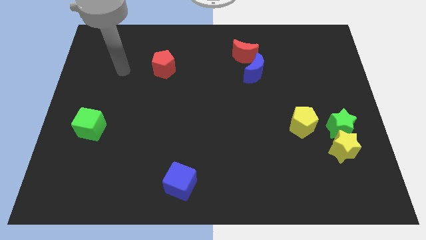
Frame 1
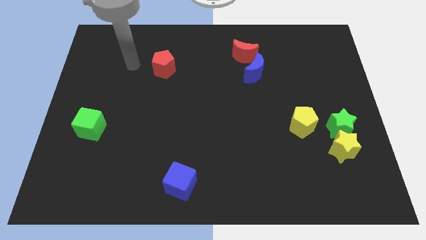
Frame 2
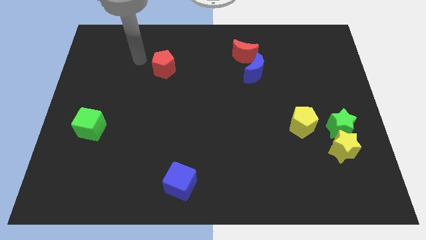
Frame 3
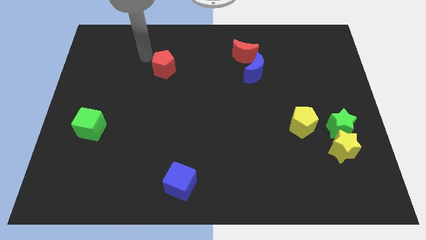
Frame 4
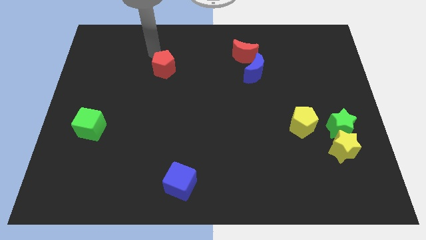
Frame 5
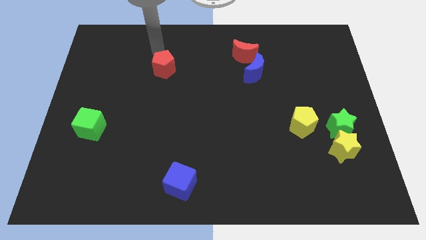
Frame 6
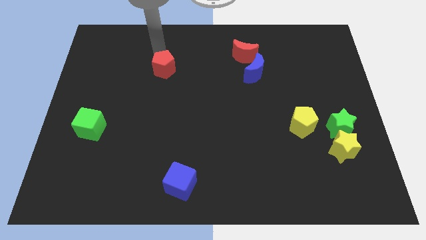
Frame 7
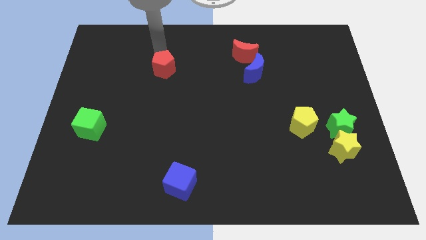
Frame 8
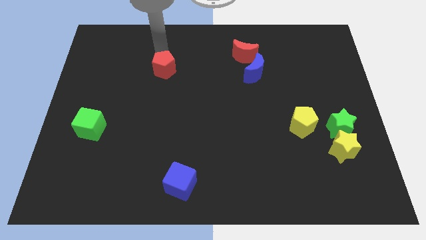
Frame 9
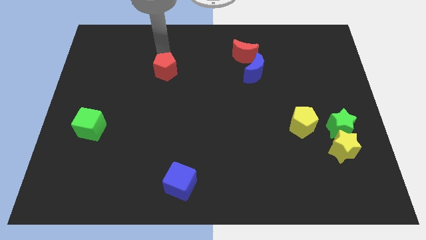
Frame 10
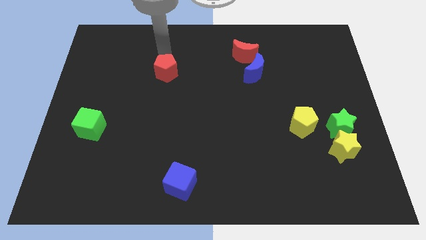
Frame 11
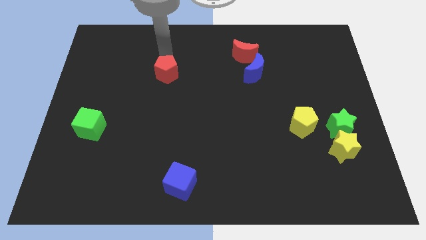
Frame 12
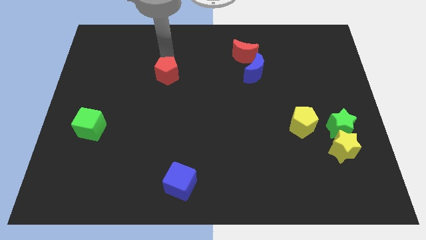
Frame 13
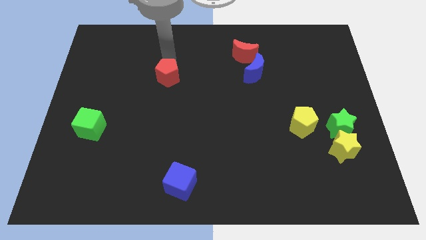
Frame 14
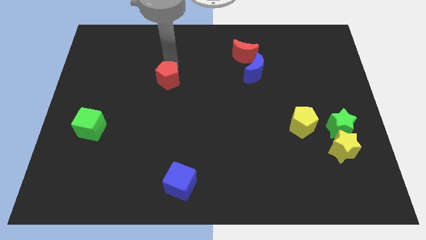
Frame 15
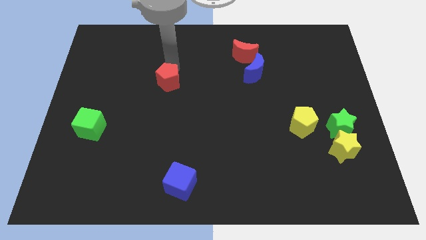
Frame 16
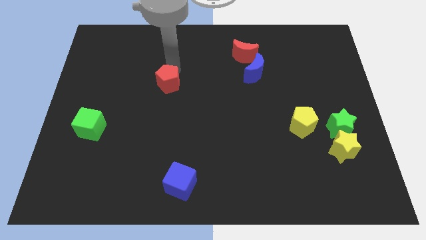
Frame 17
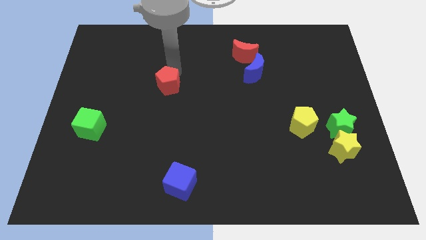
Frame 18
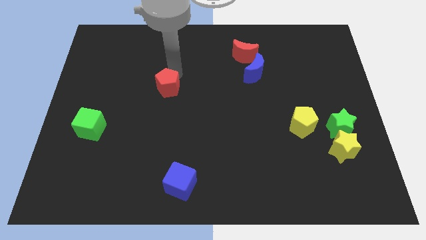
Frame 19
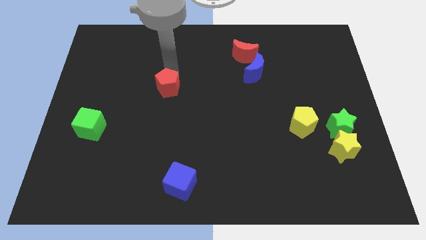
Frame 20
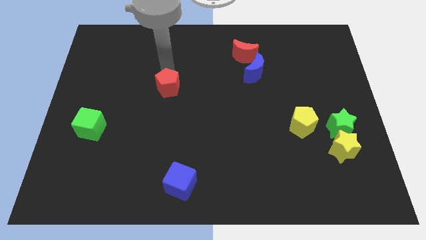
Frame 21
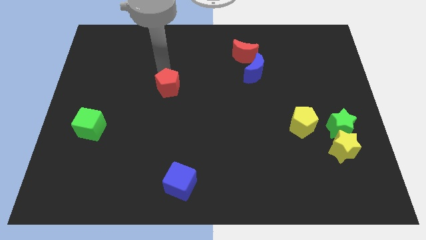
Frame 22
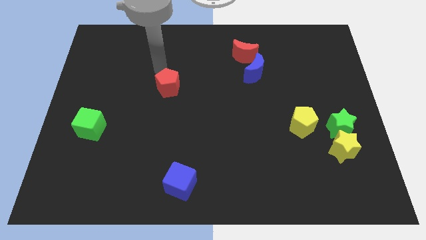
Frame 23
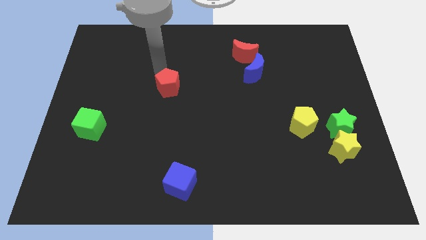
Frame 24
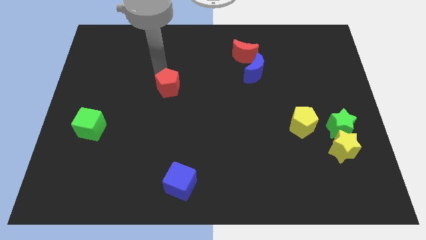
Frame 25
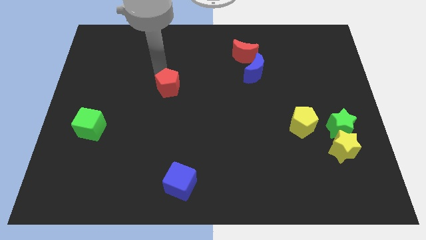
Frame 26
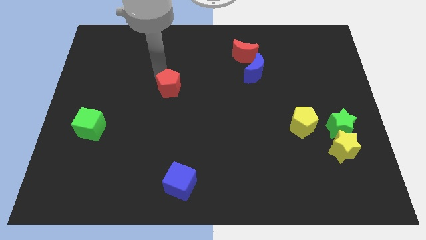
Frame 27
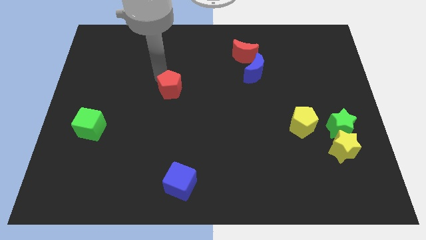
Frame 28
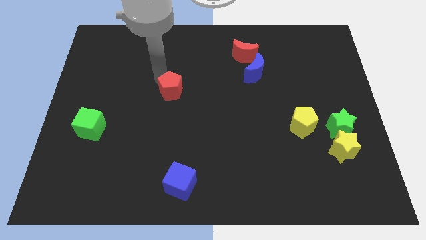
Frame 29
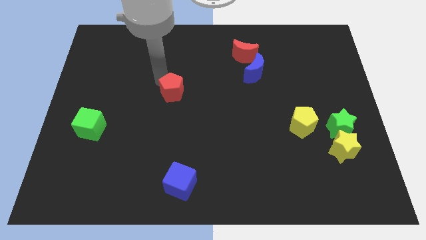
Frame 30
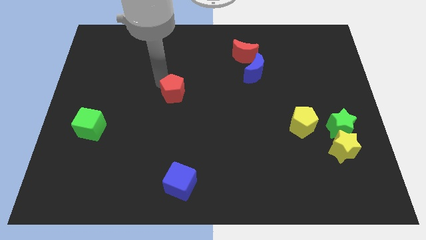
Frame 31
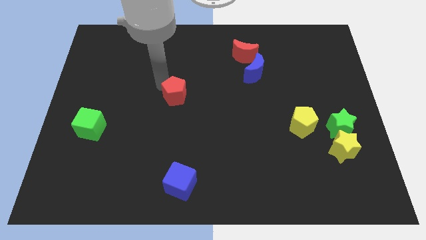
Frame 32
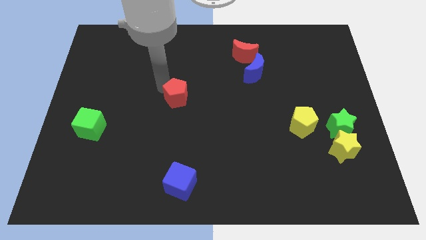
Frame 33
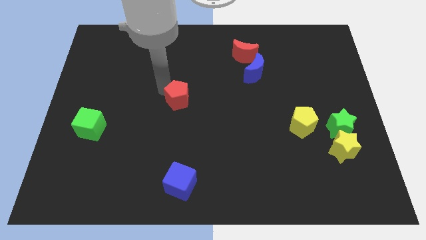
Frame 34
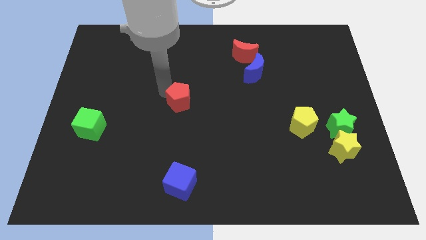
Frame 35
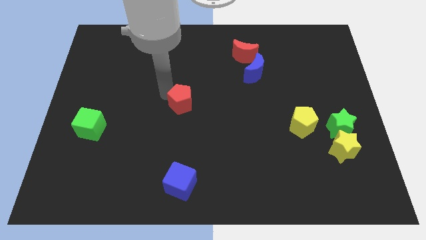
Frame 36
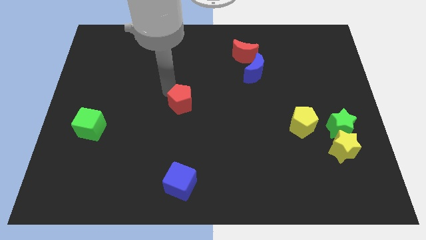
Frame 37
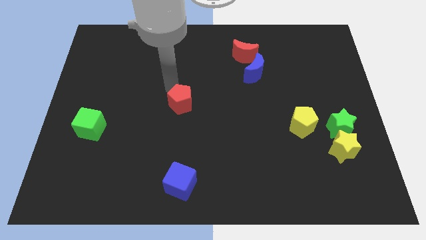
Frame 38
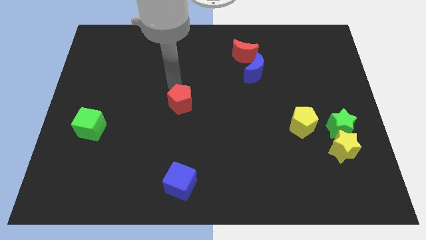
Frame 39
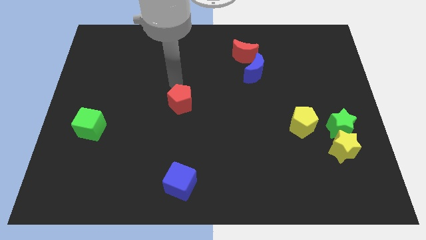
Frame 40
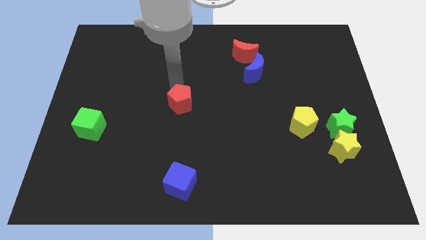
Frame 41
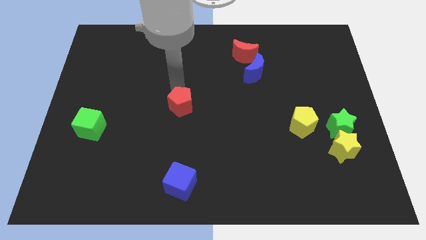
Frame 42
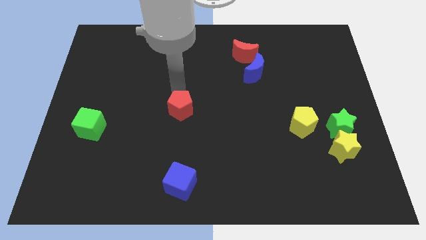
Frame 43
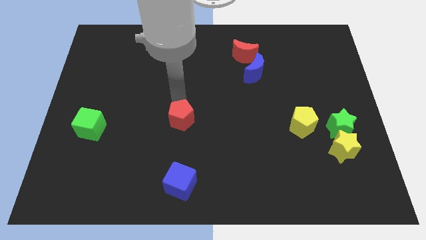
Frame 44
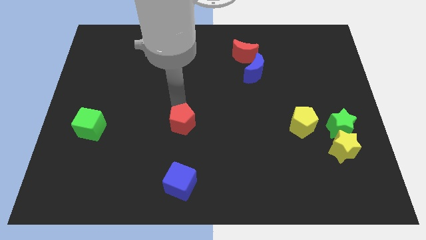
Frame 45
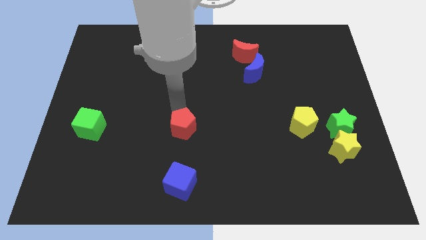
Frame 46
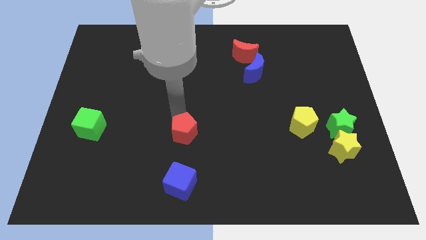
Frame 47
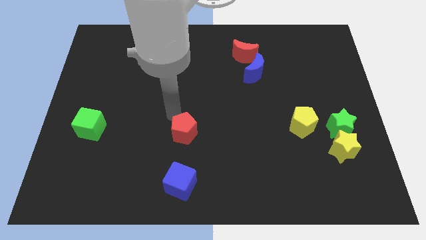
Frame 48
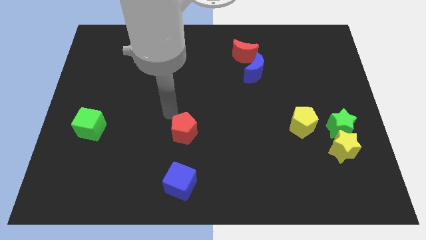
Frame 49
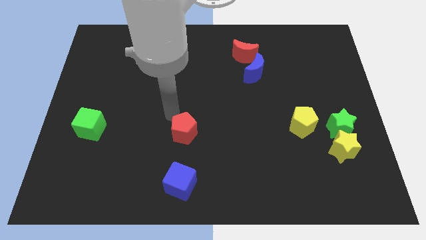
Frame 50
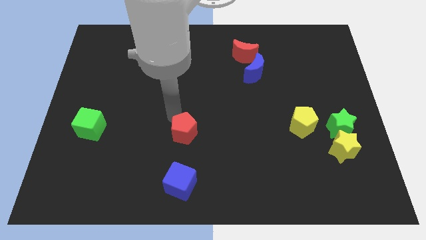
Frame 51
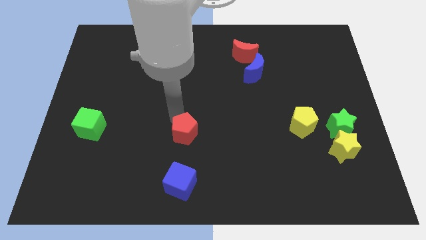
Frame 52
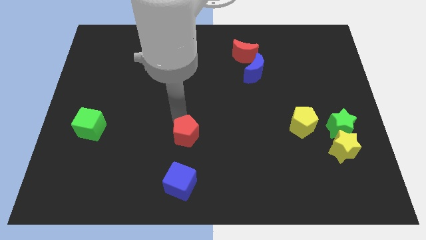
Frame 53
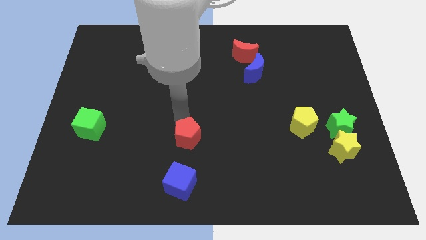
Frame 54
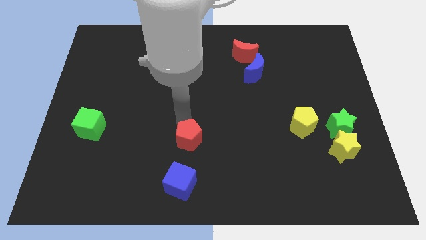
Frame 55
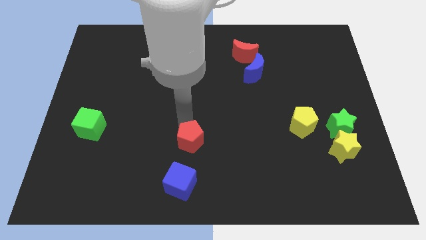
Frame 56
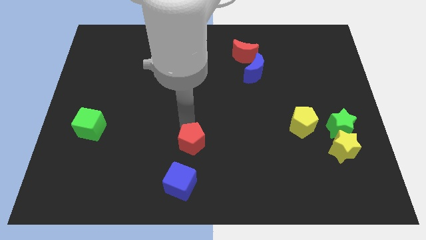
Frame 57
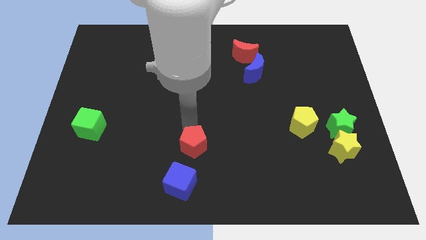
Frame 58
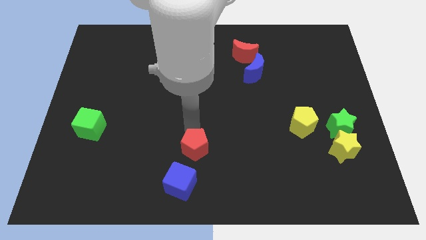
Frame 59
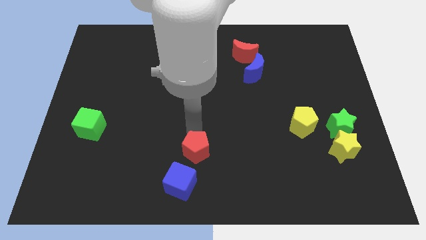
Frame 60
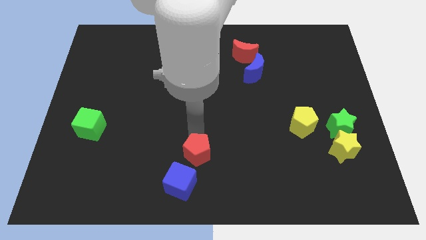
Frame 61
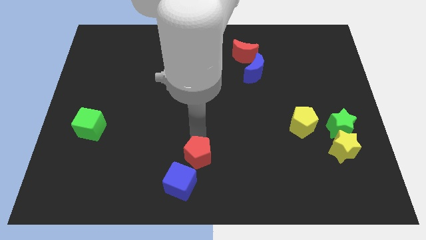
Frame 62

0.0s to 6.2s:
put the red pentagon to the bottom

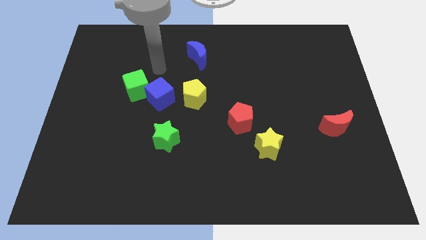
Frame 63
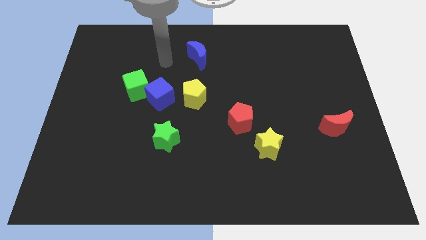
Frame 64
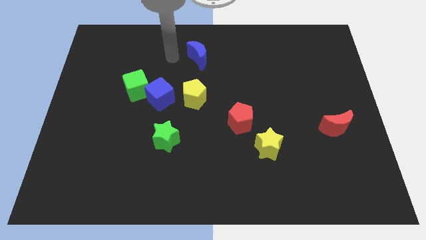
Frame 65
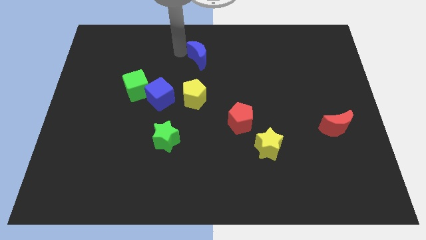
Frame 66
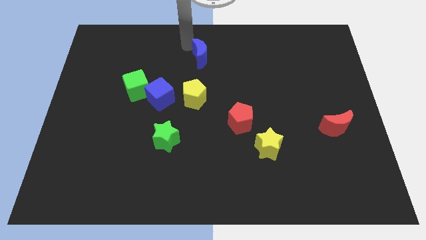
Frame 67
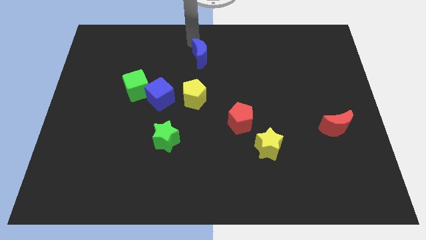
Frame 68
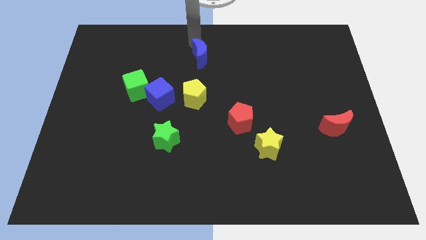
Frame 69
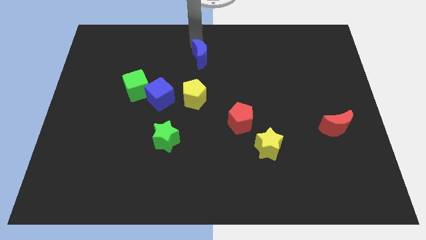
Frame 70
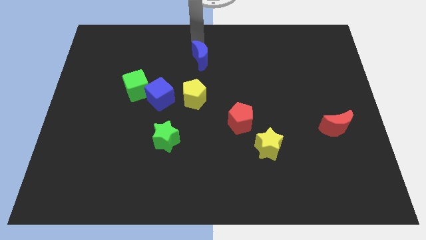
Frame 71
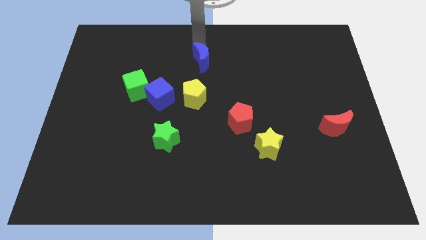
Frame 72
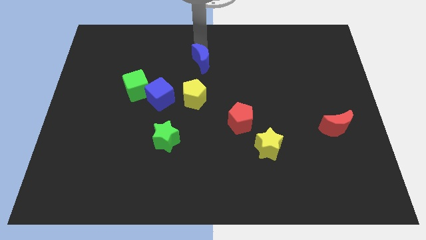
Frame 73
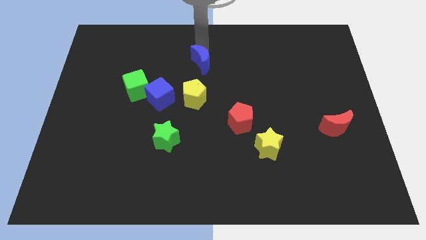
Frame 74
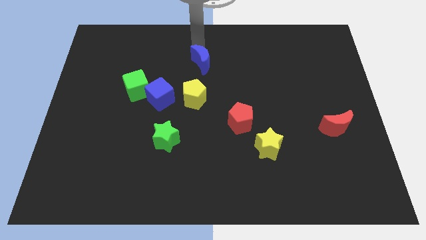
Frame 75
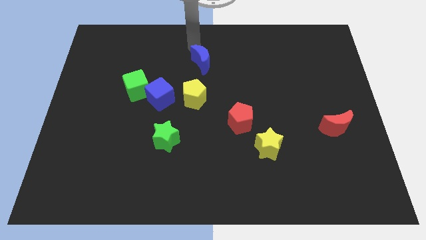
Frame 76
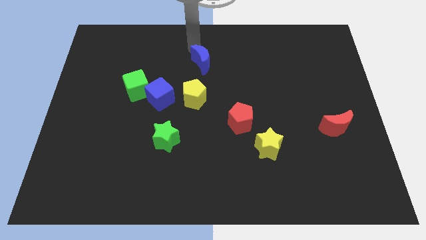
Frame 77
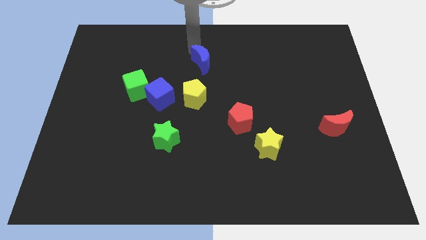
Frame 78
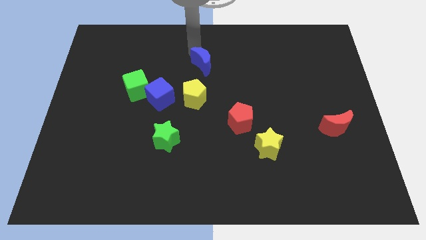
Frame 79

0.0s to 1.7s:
slide the blue moon to the center
